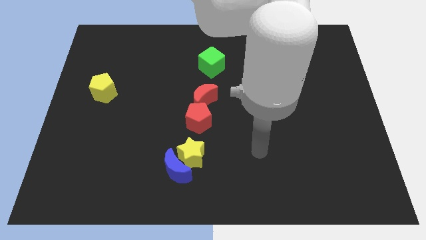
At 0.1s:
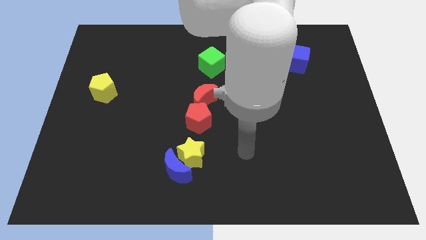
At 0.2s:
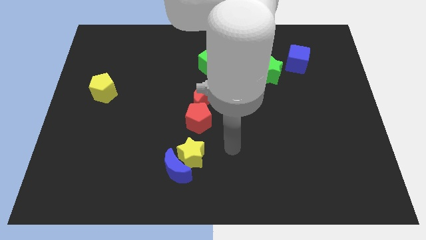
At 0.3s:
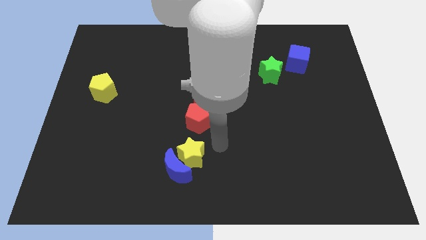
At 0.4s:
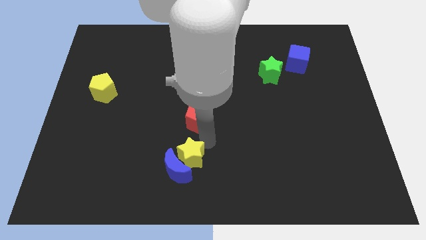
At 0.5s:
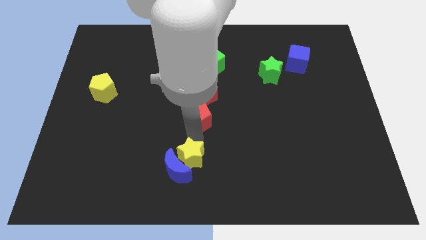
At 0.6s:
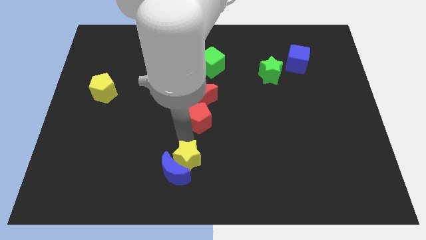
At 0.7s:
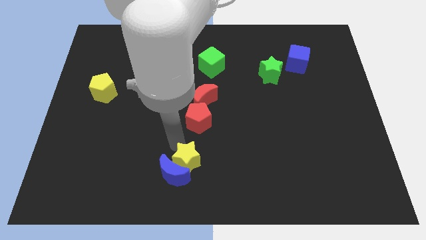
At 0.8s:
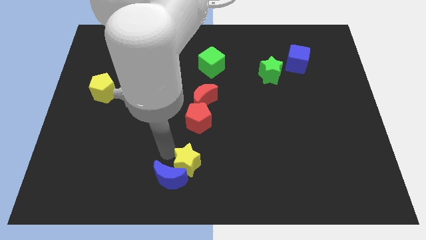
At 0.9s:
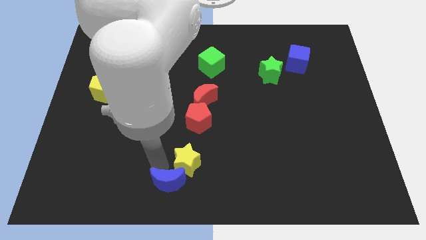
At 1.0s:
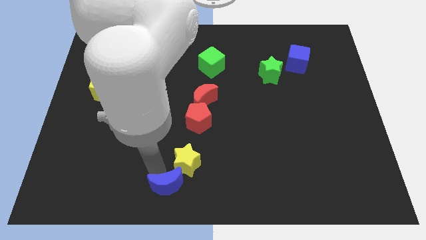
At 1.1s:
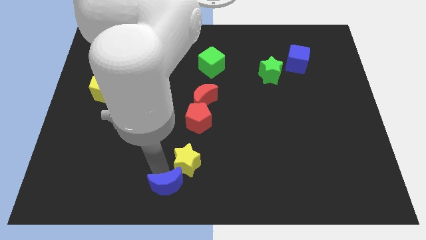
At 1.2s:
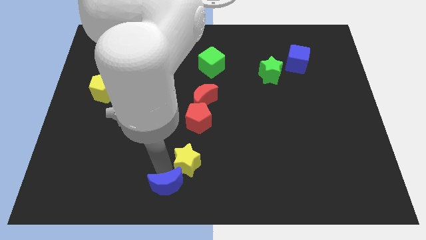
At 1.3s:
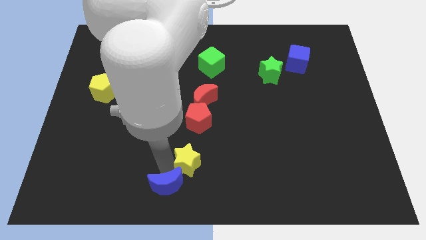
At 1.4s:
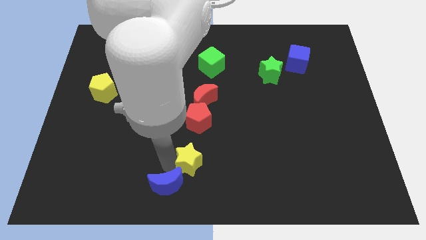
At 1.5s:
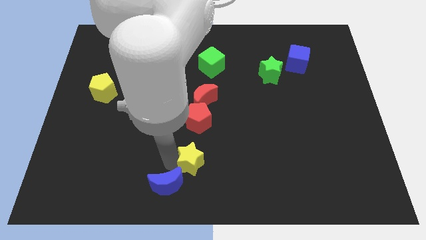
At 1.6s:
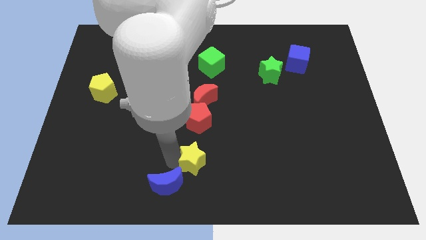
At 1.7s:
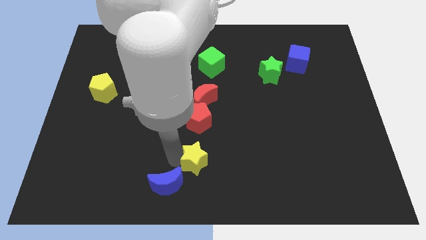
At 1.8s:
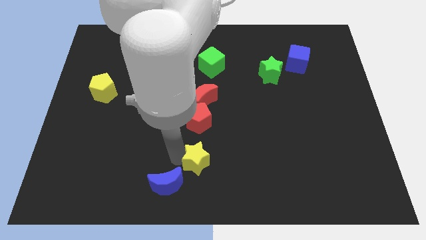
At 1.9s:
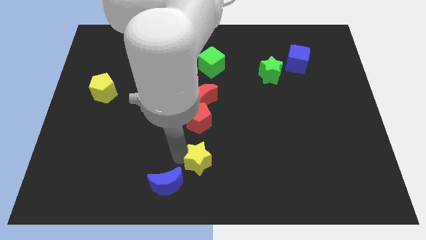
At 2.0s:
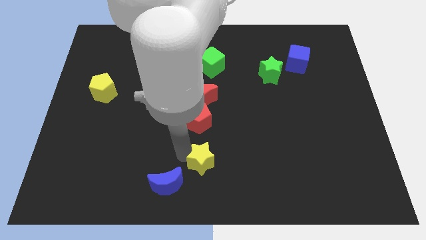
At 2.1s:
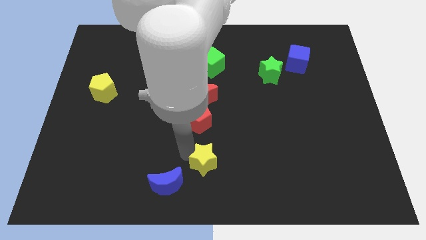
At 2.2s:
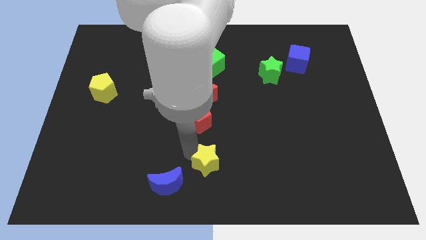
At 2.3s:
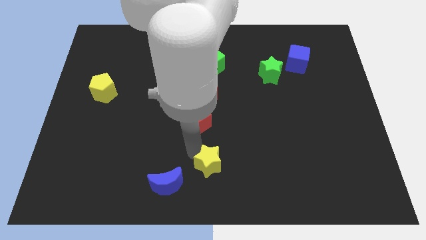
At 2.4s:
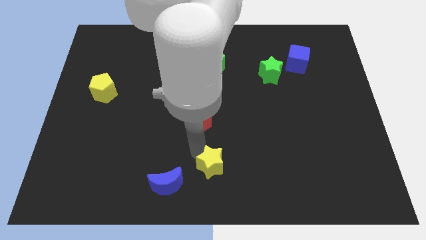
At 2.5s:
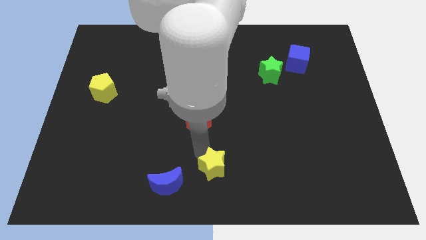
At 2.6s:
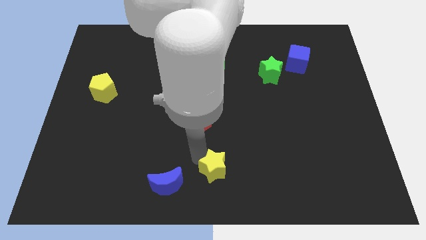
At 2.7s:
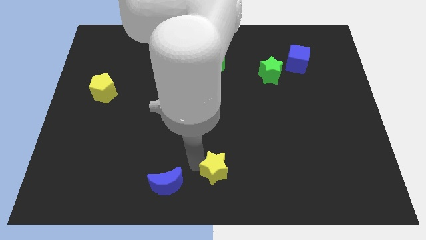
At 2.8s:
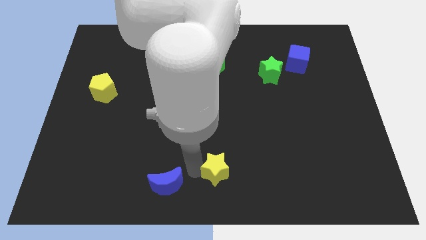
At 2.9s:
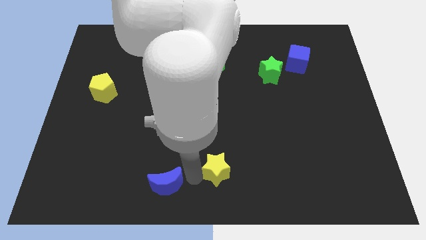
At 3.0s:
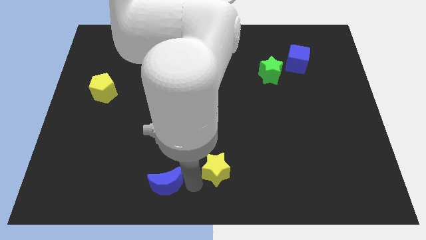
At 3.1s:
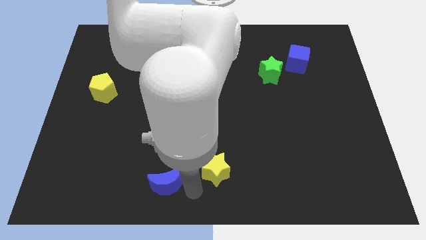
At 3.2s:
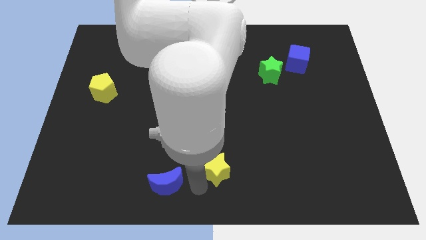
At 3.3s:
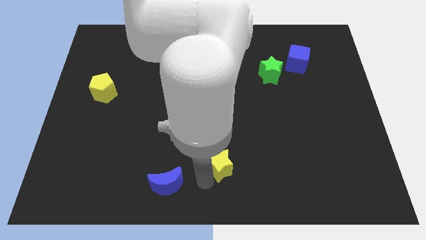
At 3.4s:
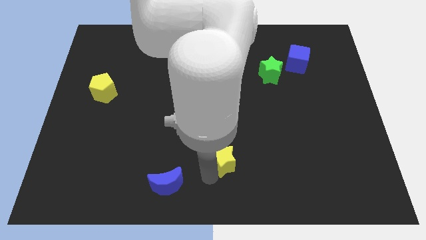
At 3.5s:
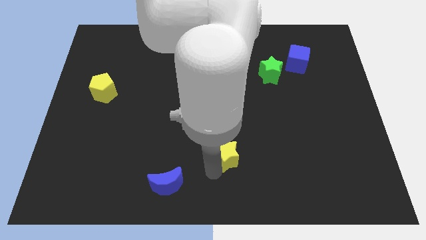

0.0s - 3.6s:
slide the yellow star a little bit to the right

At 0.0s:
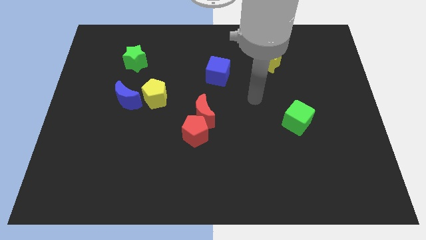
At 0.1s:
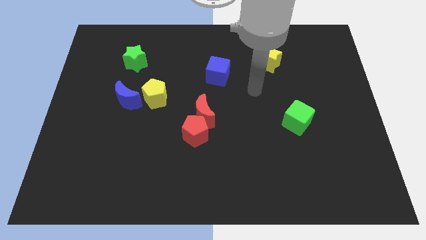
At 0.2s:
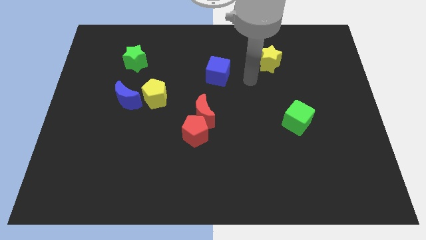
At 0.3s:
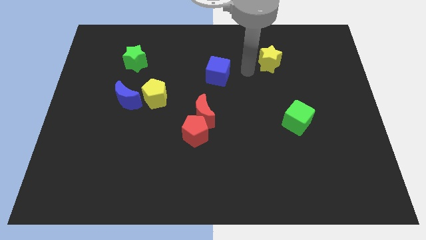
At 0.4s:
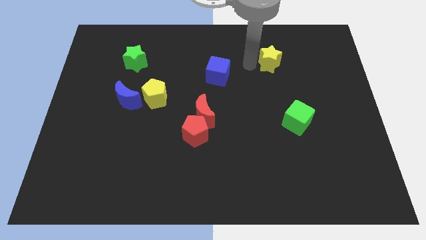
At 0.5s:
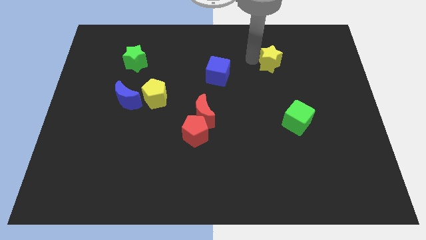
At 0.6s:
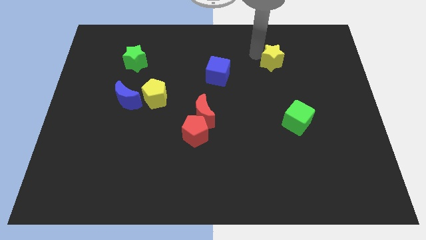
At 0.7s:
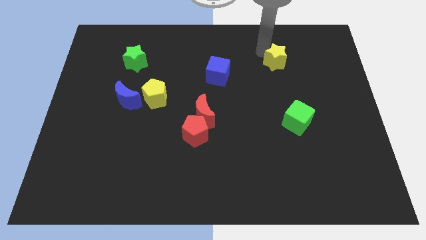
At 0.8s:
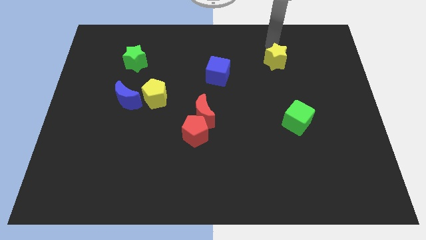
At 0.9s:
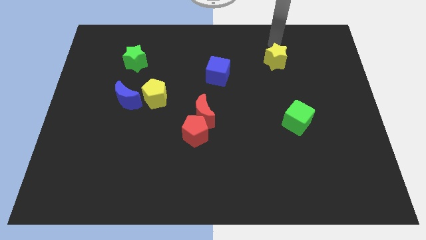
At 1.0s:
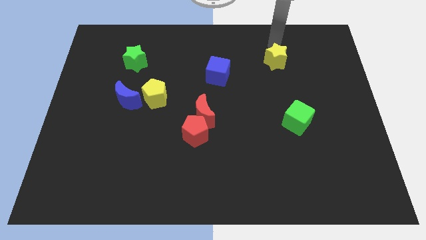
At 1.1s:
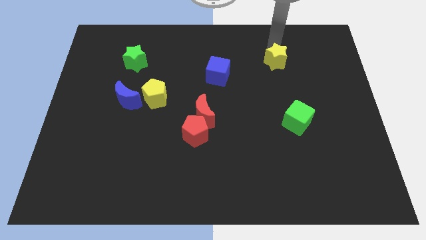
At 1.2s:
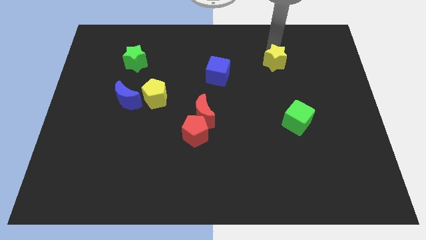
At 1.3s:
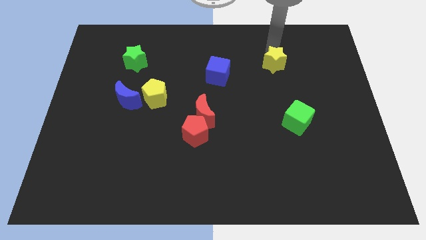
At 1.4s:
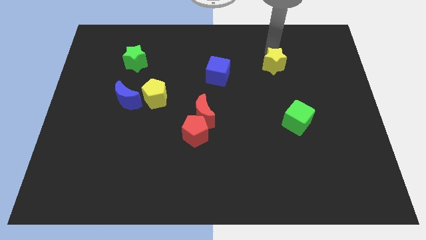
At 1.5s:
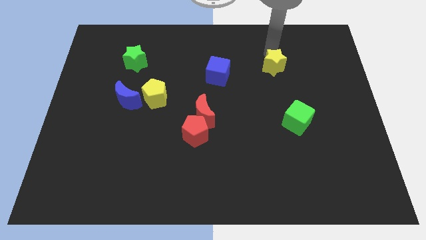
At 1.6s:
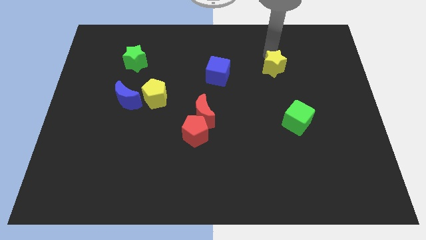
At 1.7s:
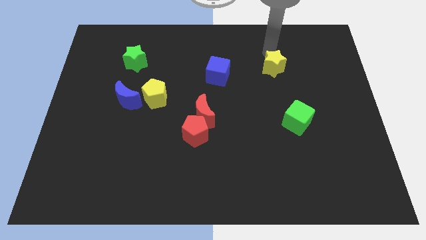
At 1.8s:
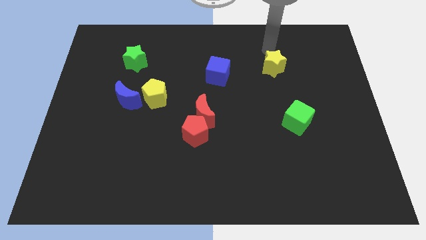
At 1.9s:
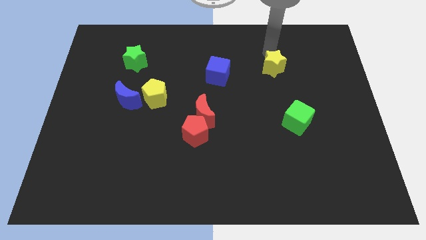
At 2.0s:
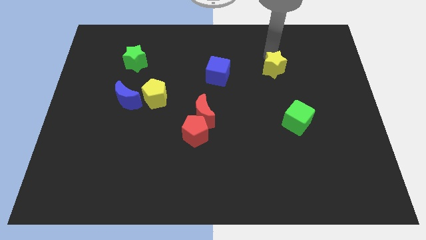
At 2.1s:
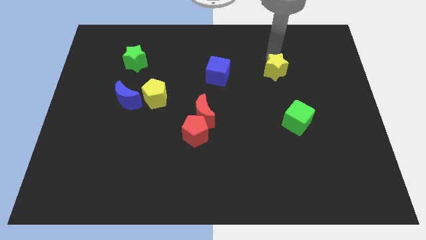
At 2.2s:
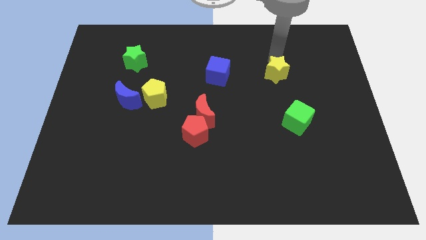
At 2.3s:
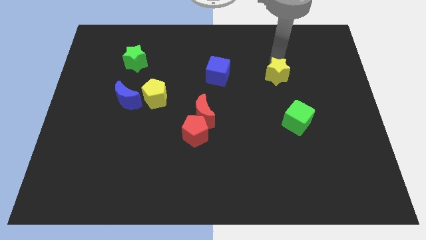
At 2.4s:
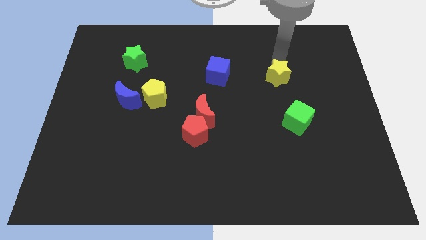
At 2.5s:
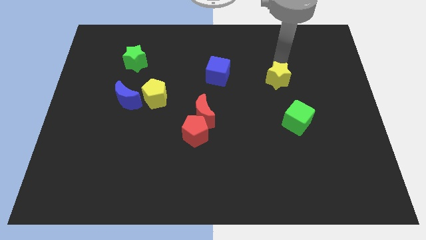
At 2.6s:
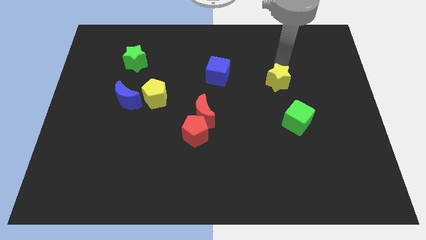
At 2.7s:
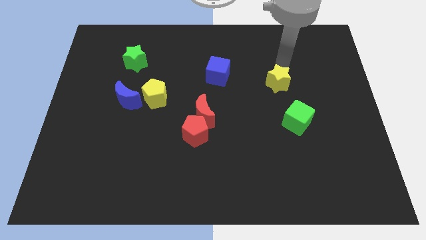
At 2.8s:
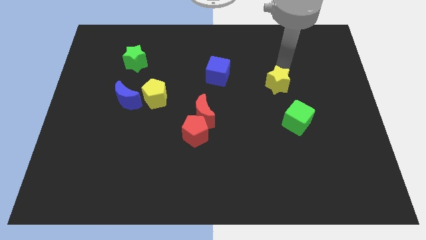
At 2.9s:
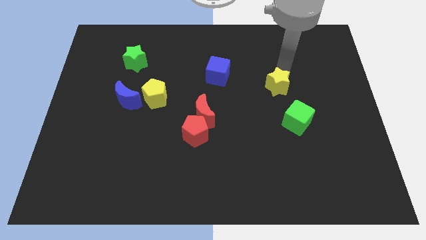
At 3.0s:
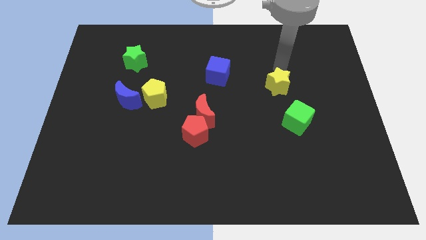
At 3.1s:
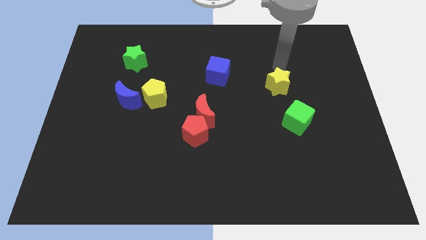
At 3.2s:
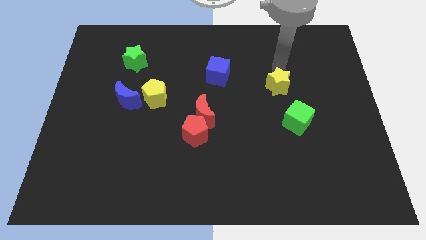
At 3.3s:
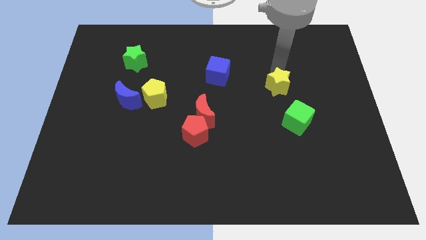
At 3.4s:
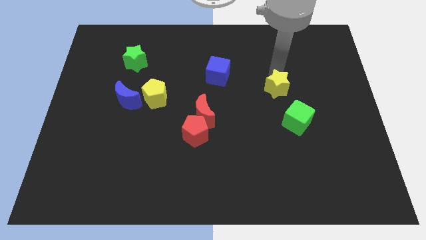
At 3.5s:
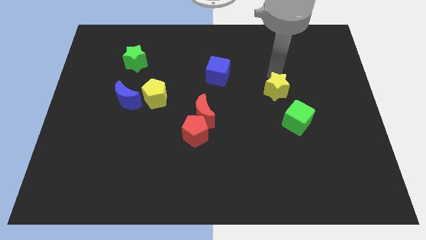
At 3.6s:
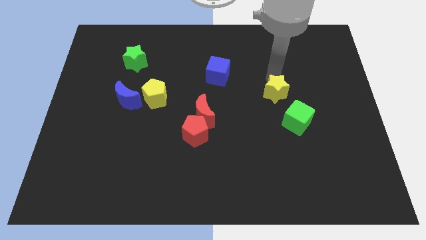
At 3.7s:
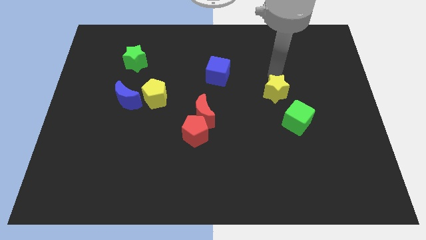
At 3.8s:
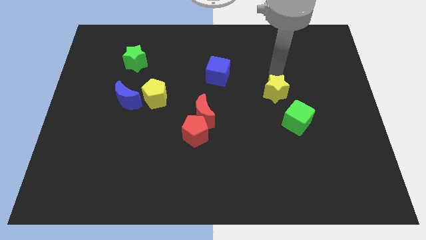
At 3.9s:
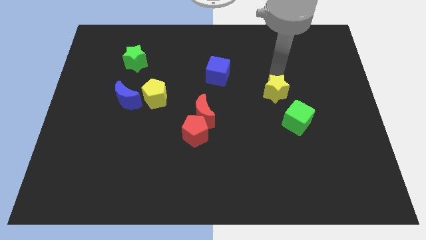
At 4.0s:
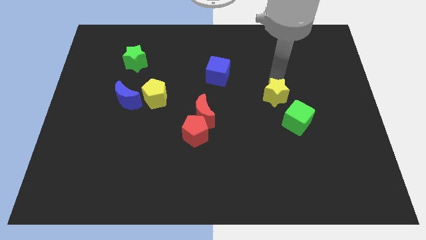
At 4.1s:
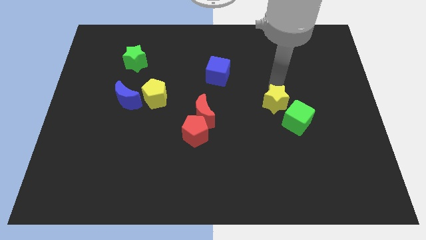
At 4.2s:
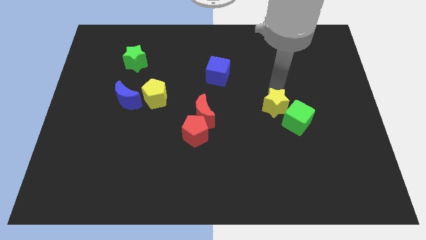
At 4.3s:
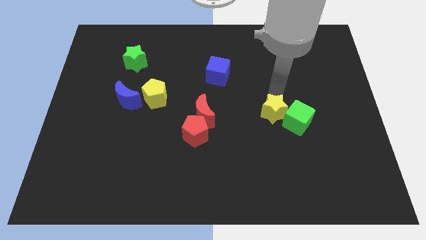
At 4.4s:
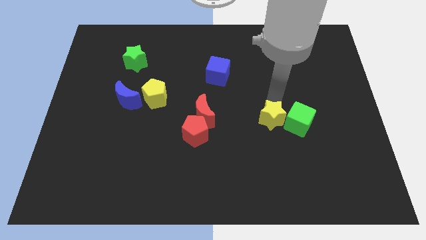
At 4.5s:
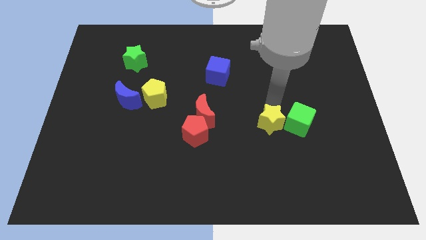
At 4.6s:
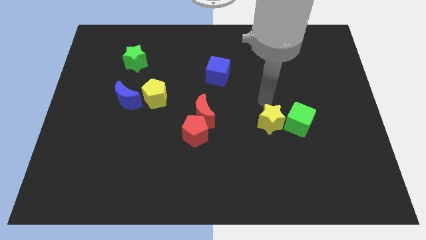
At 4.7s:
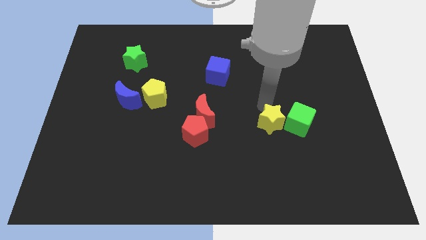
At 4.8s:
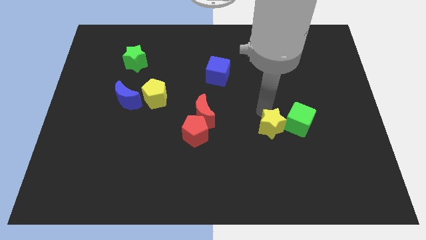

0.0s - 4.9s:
move the yellow star down
